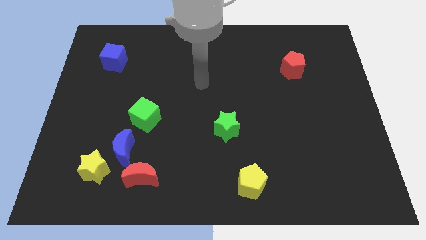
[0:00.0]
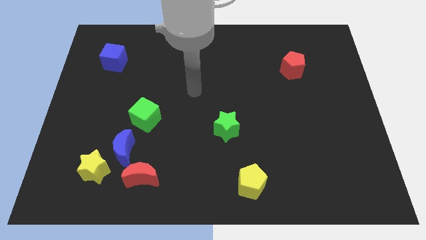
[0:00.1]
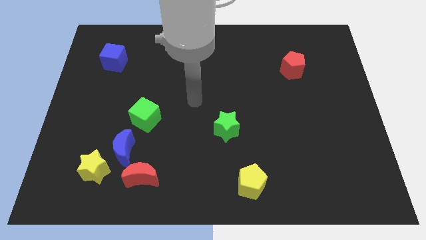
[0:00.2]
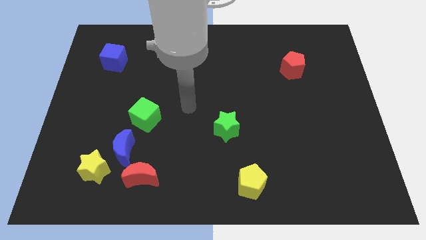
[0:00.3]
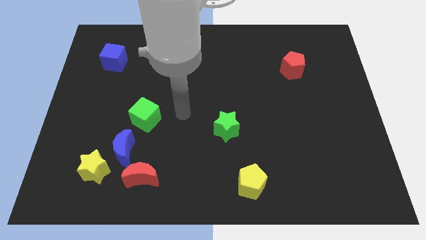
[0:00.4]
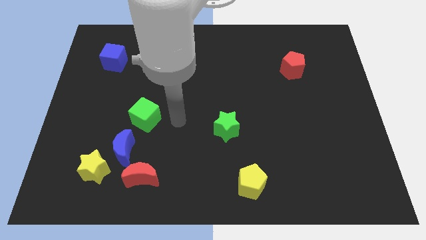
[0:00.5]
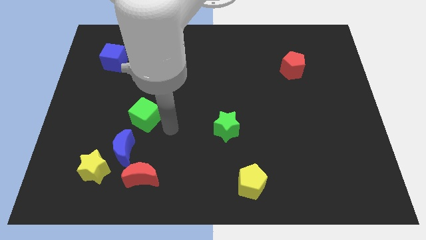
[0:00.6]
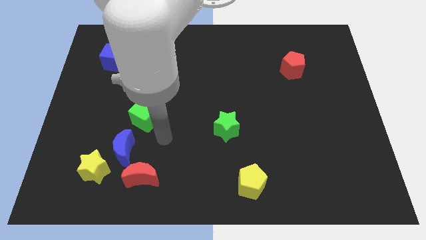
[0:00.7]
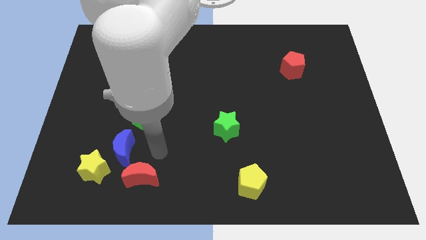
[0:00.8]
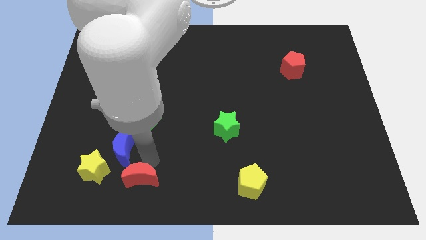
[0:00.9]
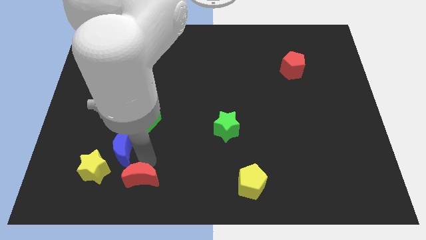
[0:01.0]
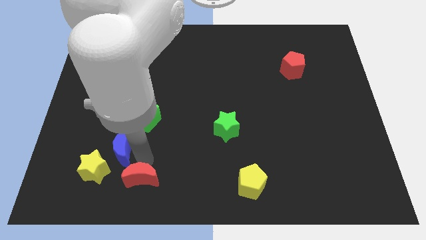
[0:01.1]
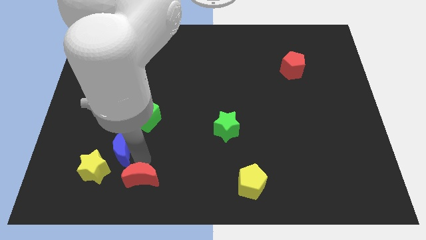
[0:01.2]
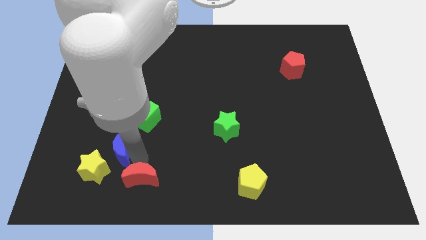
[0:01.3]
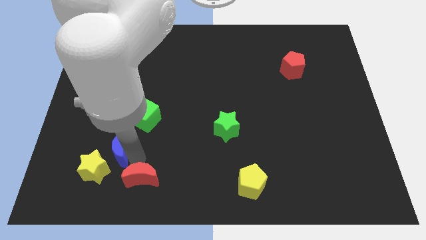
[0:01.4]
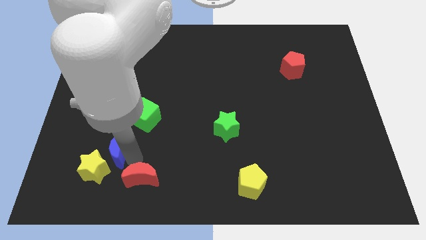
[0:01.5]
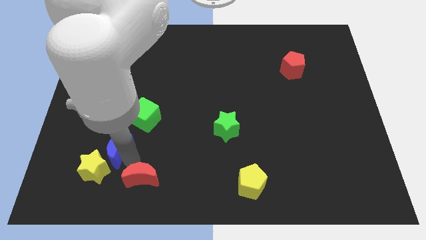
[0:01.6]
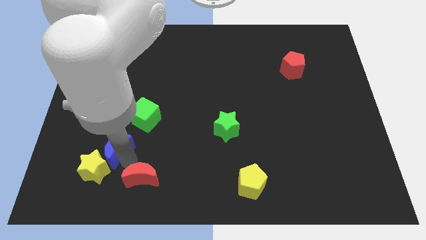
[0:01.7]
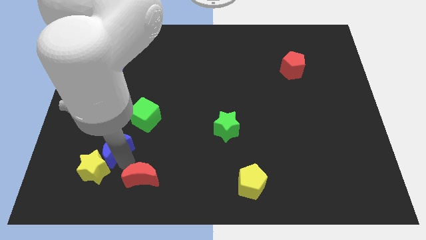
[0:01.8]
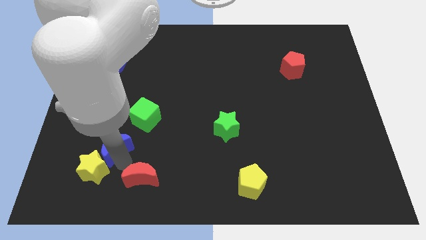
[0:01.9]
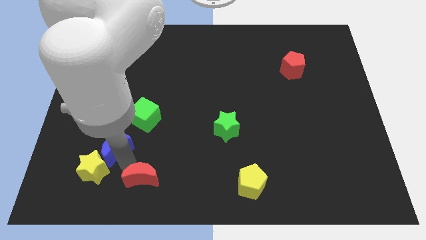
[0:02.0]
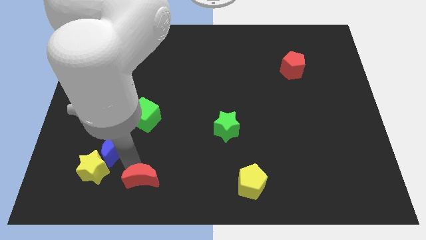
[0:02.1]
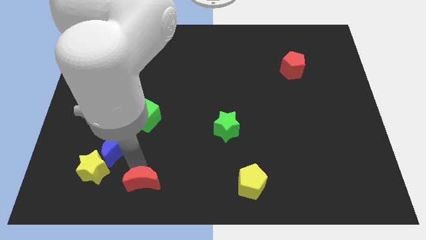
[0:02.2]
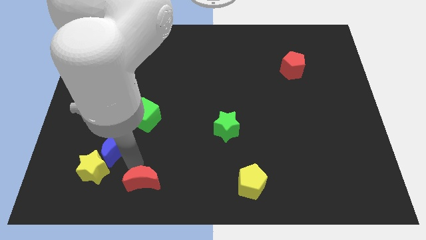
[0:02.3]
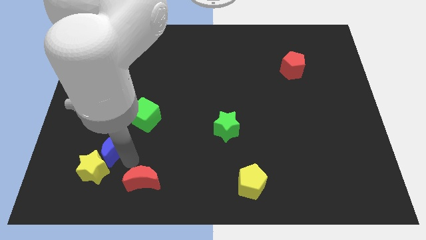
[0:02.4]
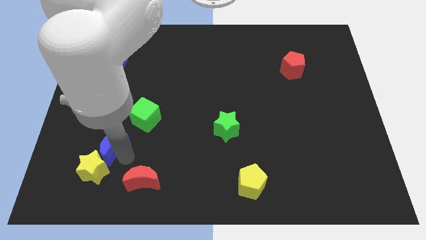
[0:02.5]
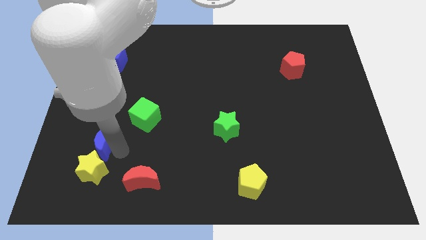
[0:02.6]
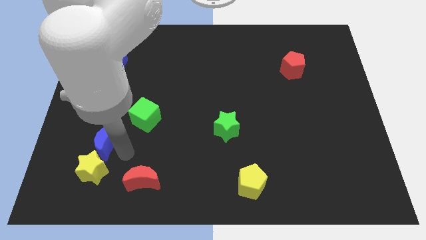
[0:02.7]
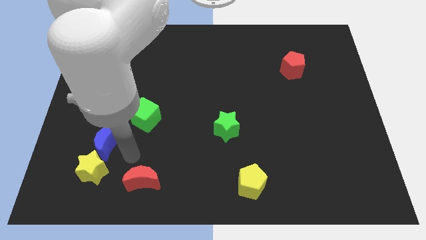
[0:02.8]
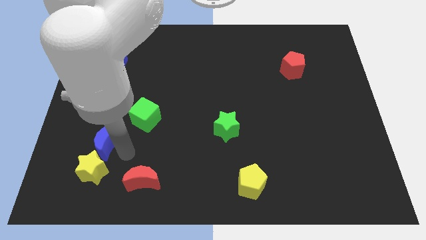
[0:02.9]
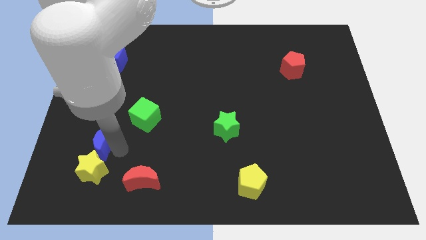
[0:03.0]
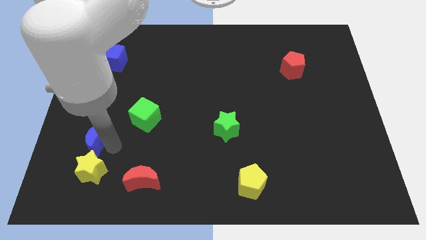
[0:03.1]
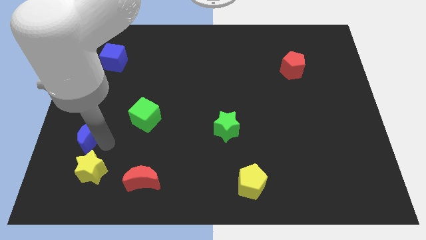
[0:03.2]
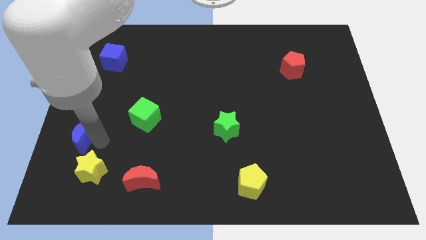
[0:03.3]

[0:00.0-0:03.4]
pull the blue moon apart from the yellow star, red moon, and green cube

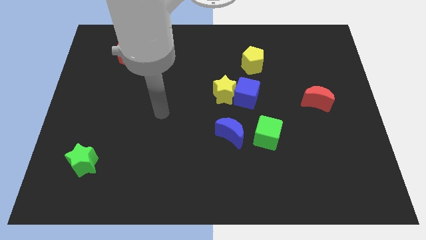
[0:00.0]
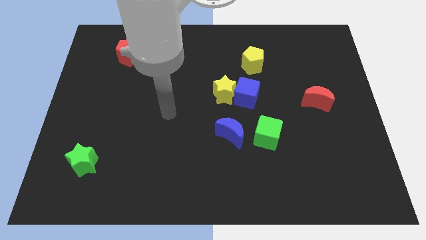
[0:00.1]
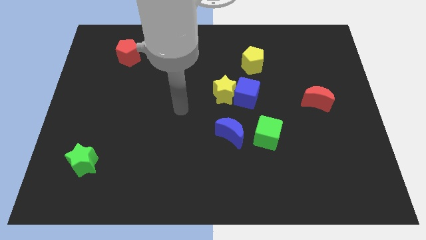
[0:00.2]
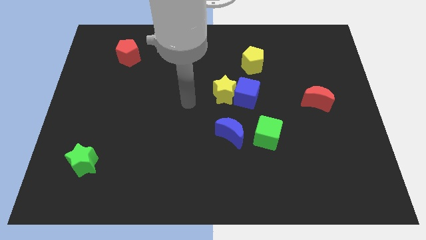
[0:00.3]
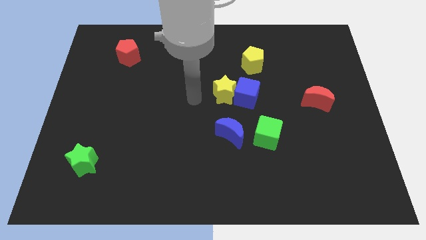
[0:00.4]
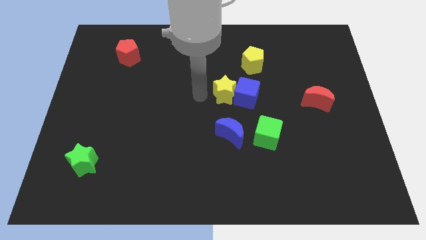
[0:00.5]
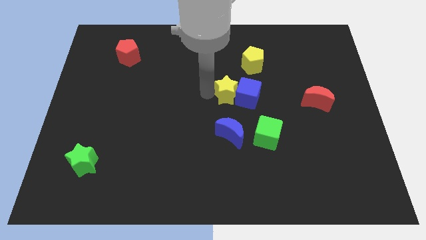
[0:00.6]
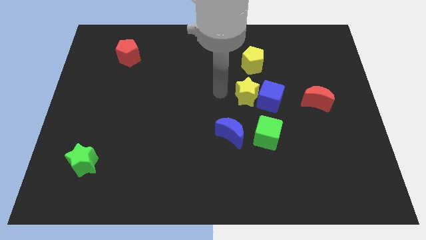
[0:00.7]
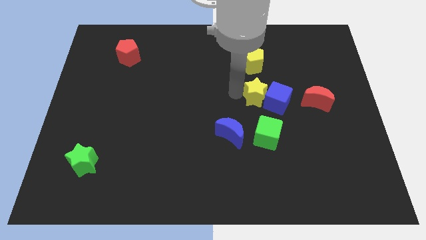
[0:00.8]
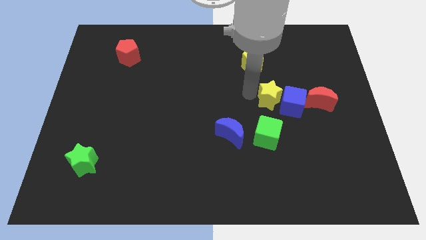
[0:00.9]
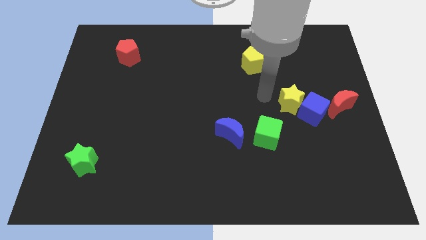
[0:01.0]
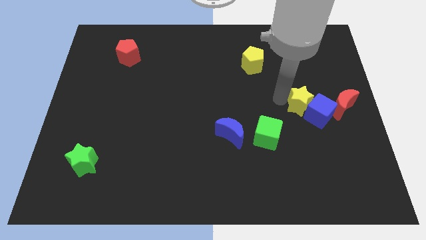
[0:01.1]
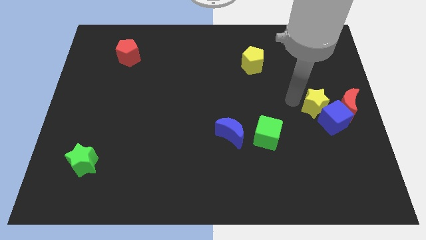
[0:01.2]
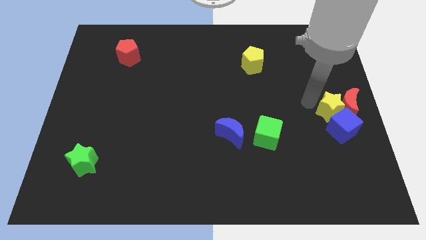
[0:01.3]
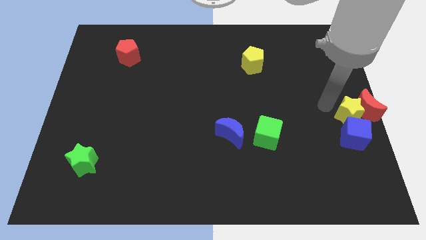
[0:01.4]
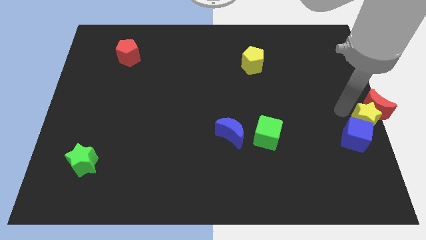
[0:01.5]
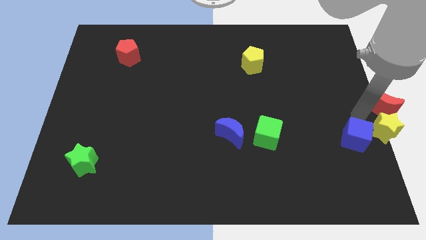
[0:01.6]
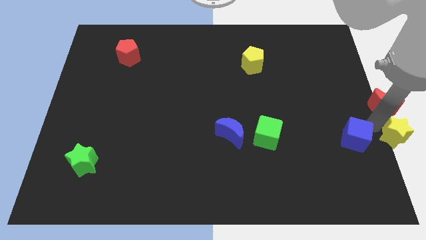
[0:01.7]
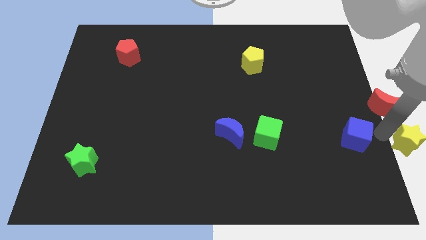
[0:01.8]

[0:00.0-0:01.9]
move the blue cube away from the yellow star

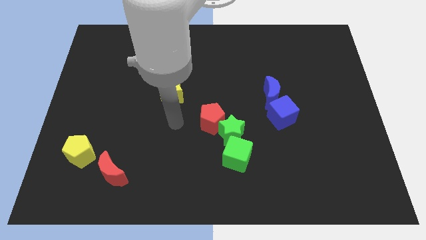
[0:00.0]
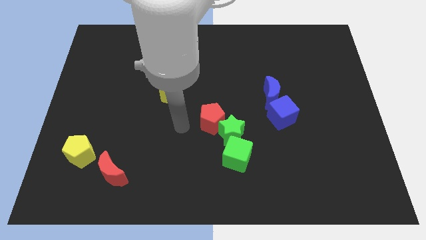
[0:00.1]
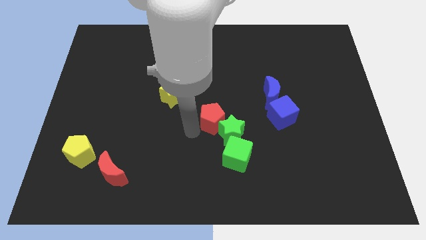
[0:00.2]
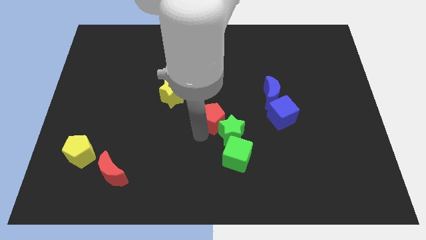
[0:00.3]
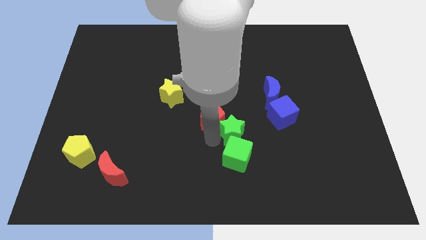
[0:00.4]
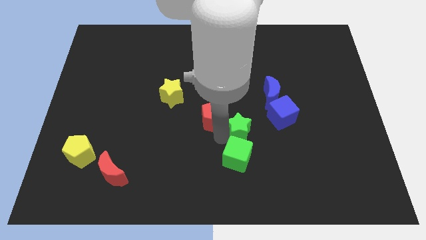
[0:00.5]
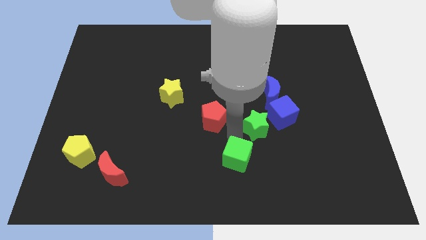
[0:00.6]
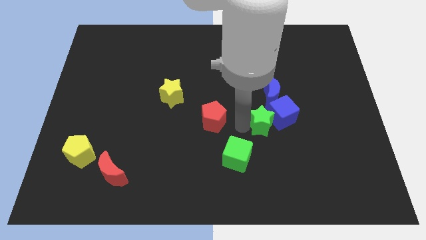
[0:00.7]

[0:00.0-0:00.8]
move the red pentagon away from the green star

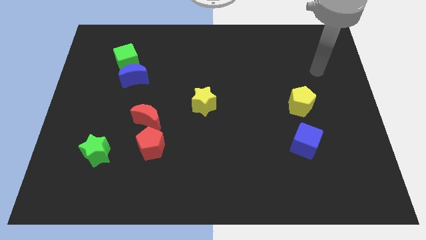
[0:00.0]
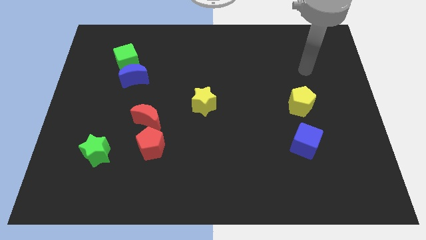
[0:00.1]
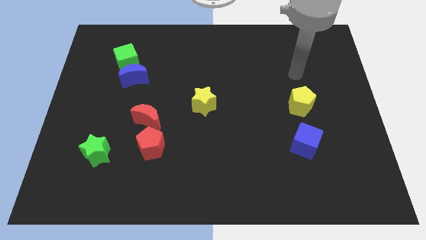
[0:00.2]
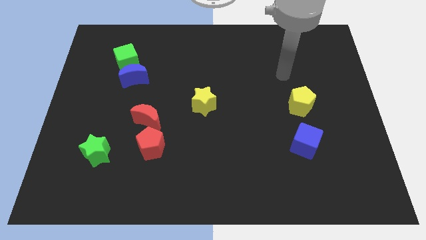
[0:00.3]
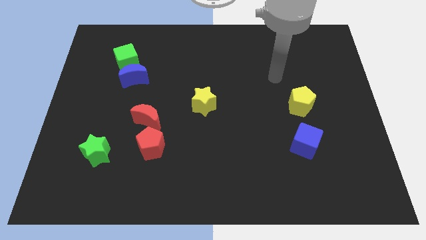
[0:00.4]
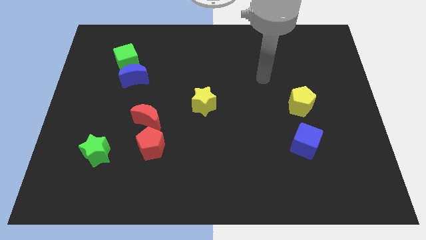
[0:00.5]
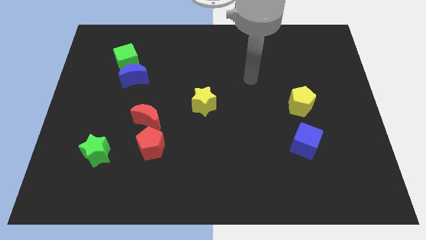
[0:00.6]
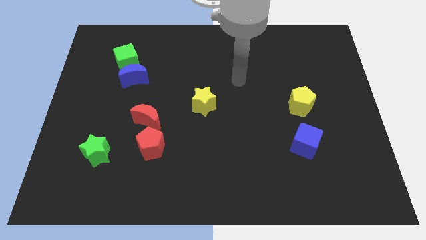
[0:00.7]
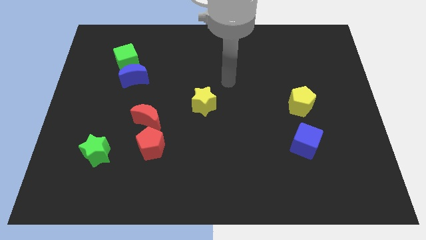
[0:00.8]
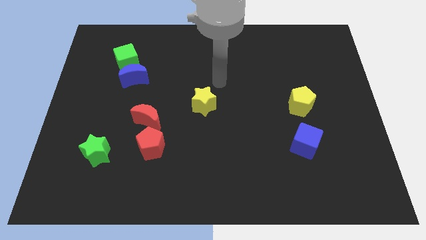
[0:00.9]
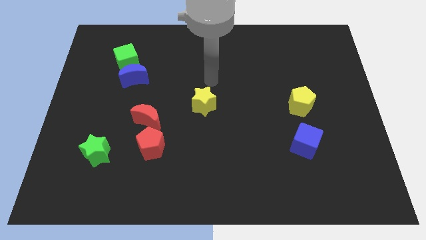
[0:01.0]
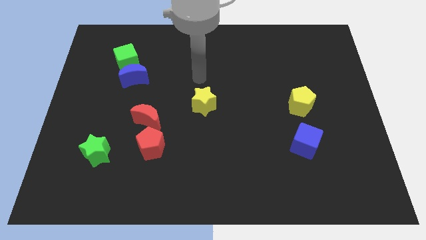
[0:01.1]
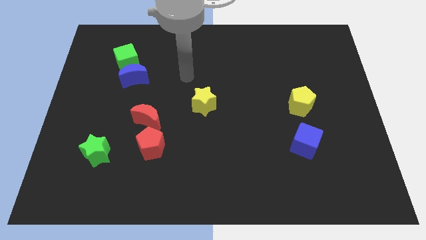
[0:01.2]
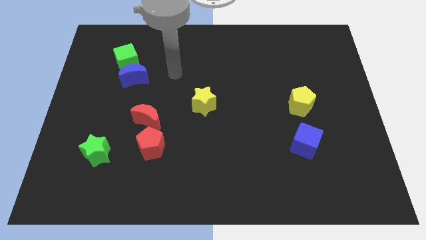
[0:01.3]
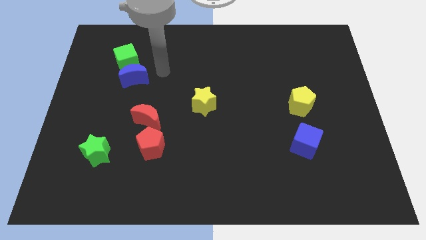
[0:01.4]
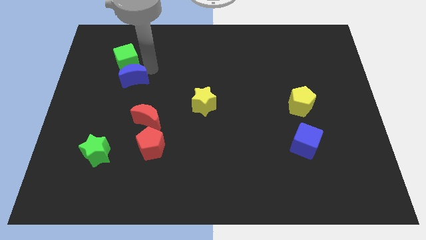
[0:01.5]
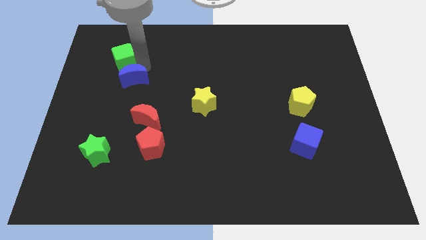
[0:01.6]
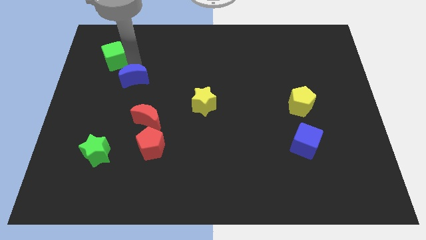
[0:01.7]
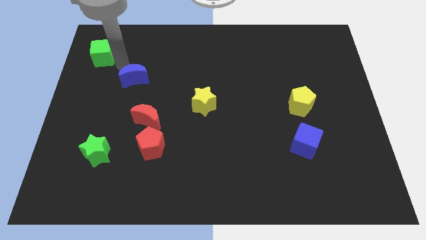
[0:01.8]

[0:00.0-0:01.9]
pull the blue moon apart from the green cube

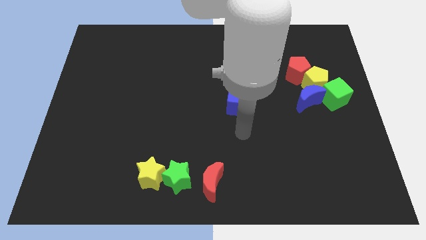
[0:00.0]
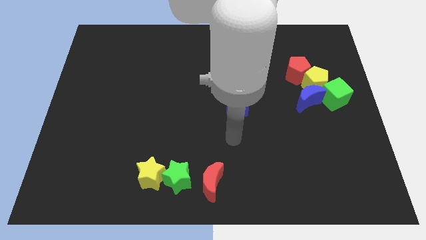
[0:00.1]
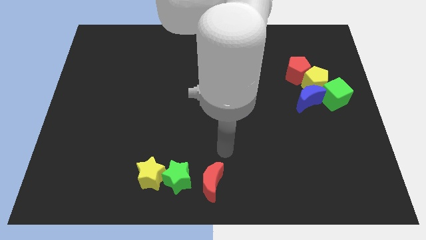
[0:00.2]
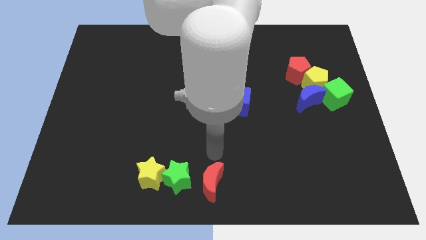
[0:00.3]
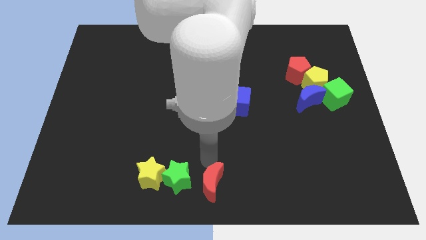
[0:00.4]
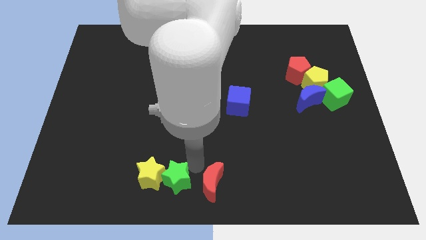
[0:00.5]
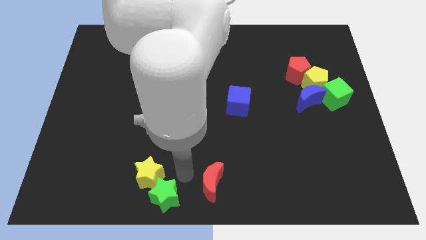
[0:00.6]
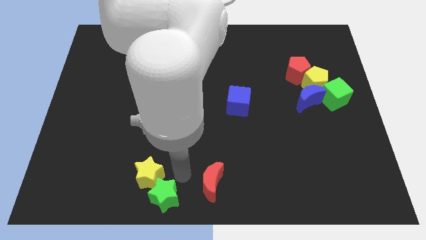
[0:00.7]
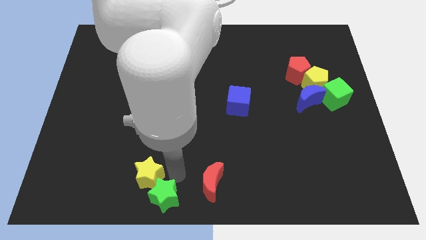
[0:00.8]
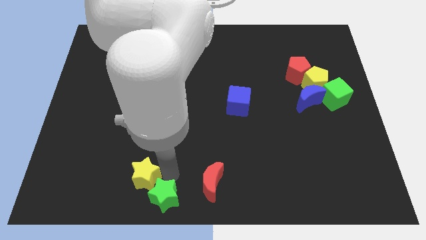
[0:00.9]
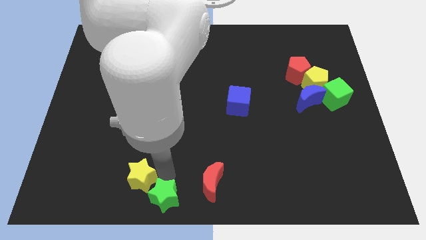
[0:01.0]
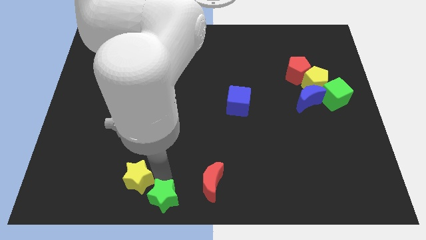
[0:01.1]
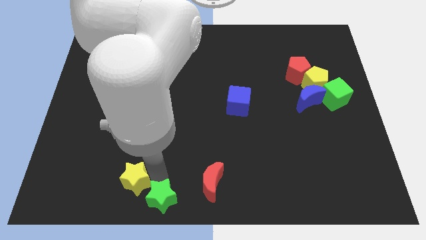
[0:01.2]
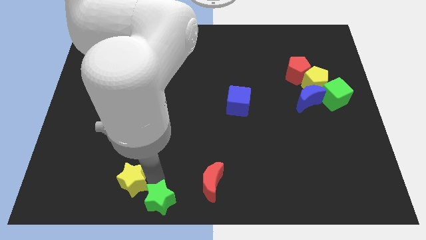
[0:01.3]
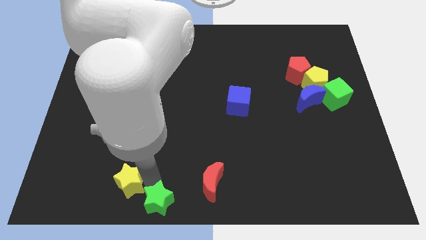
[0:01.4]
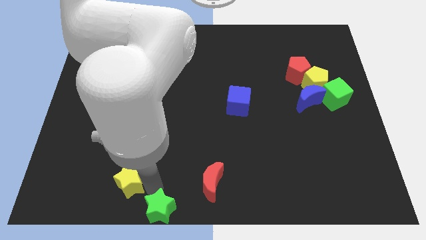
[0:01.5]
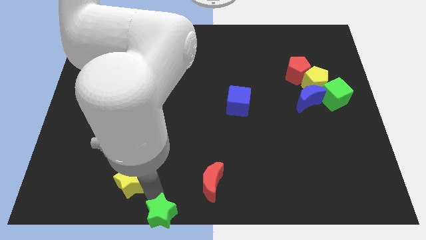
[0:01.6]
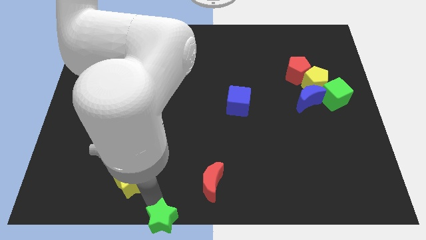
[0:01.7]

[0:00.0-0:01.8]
separate the yellow star from the green star
